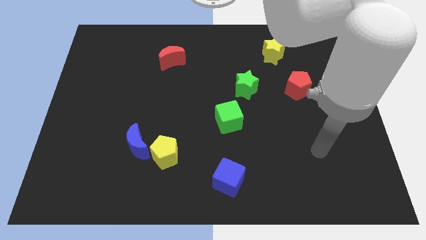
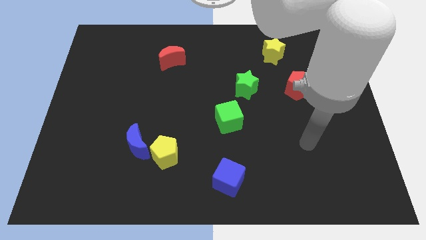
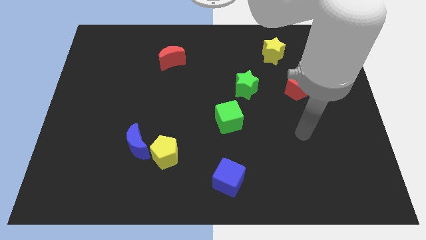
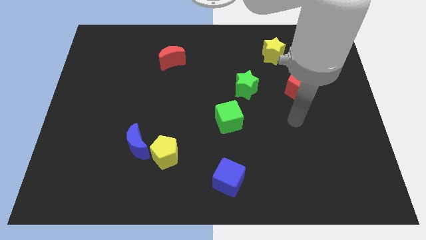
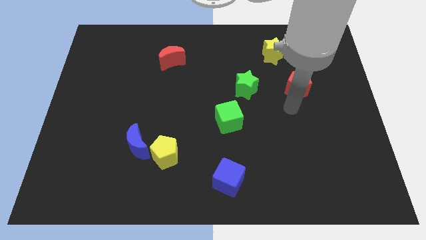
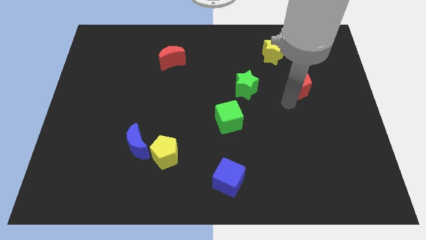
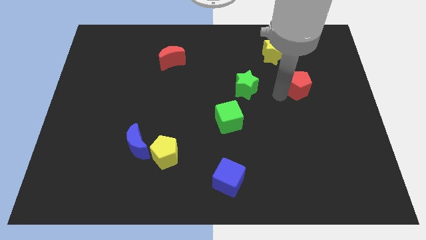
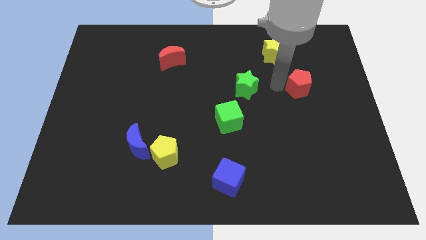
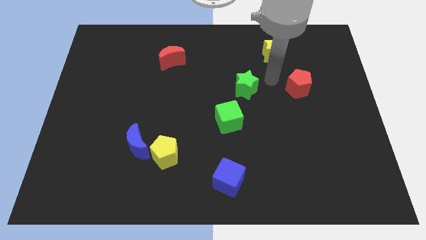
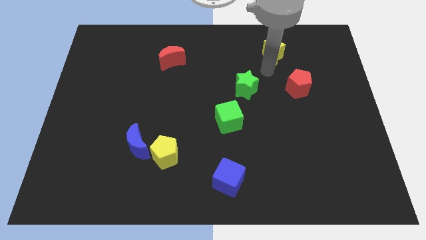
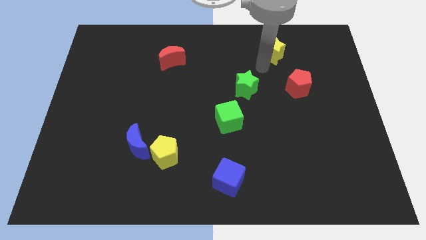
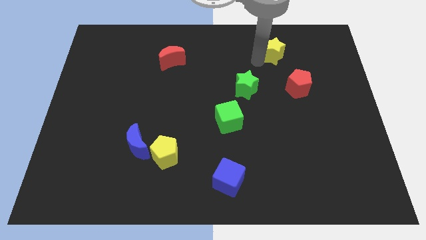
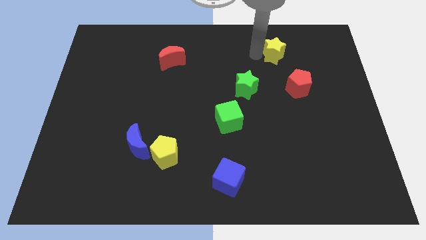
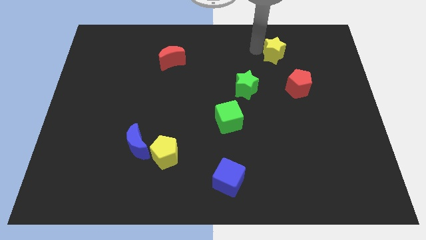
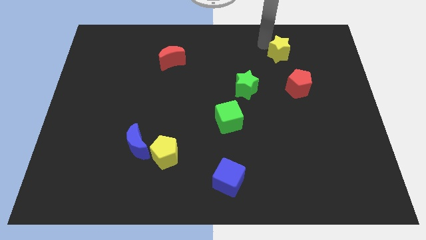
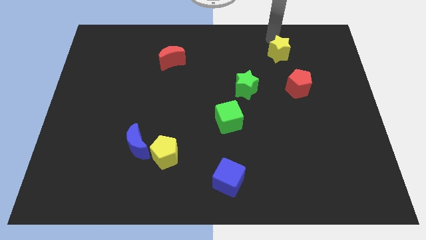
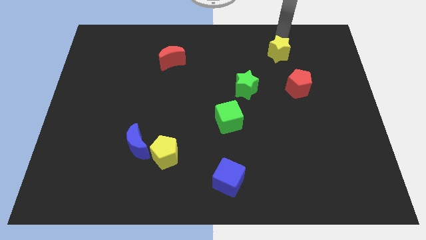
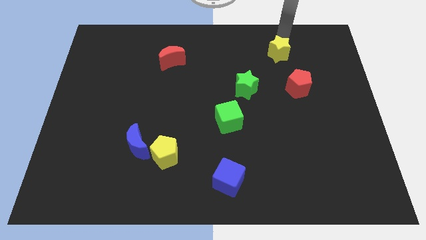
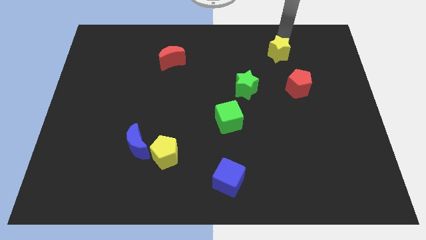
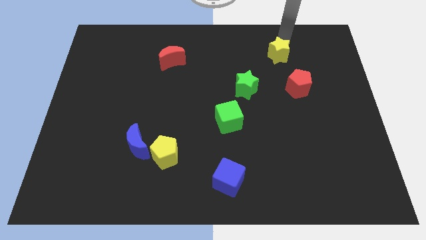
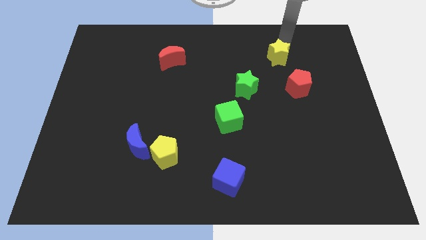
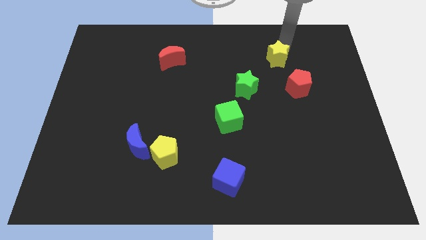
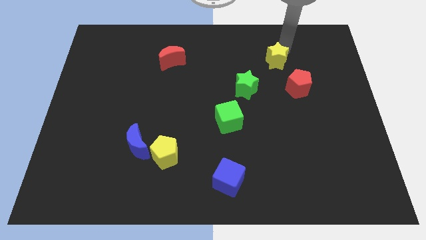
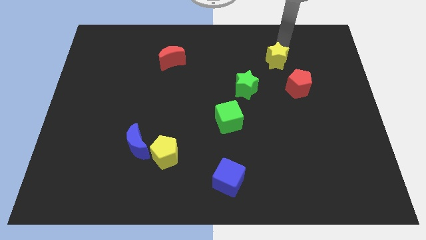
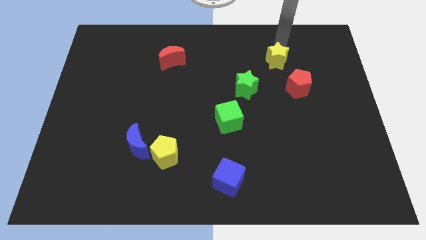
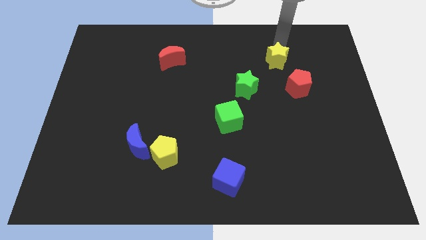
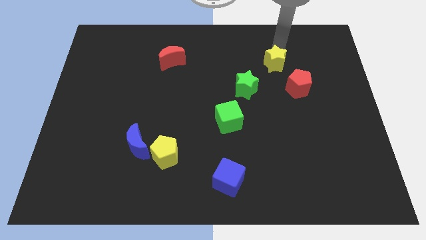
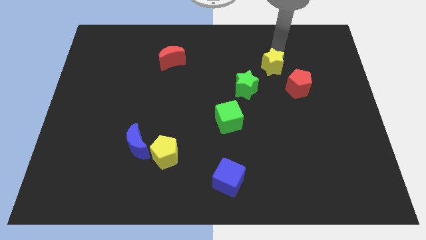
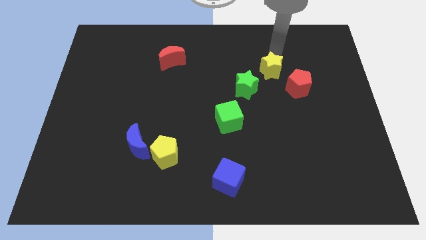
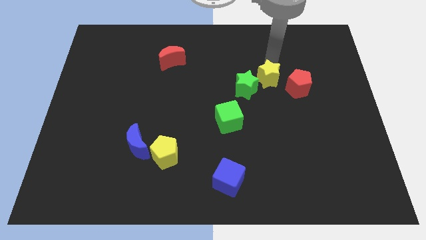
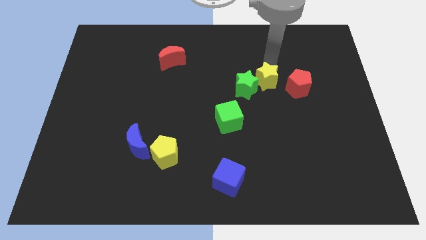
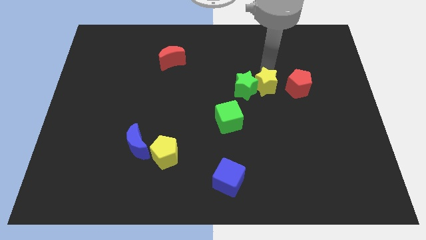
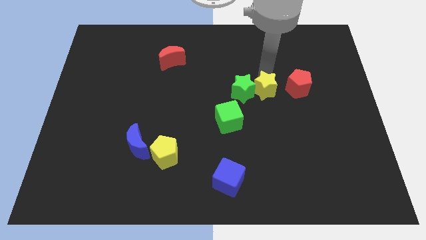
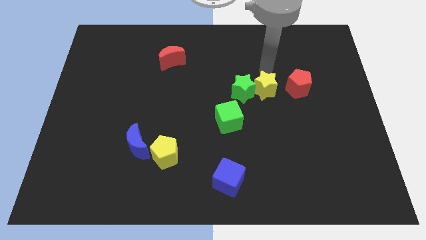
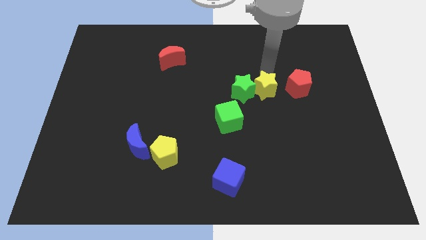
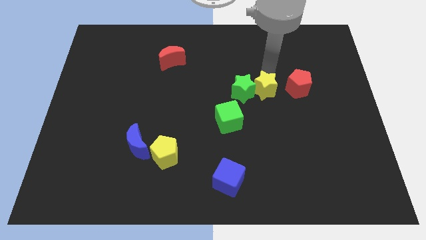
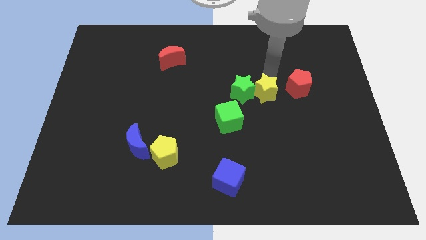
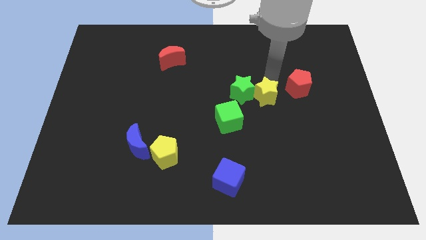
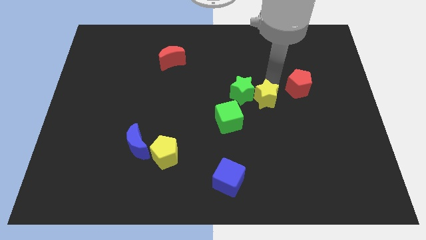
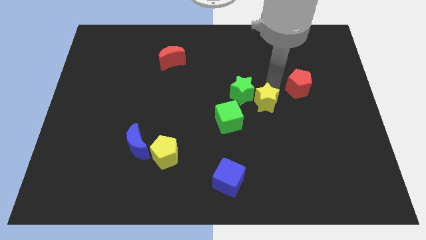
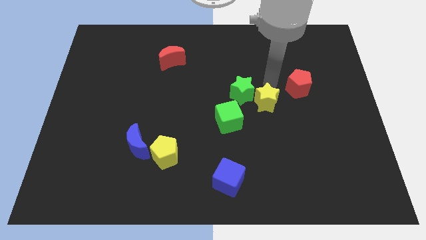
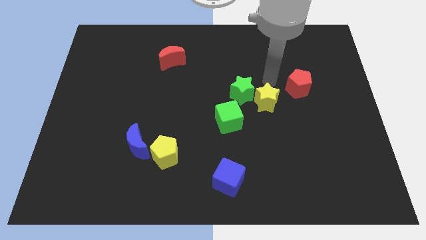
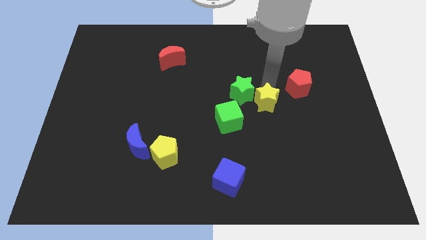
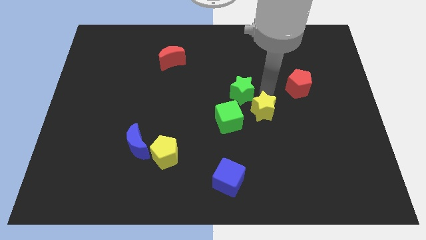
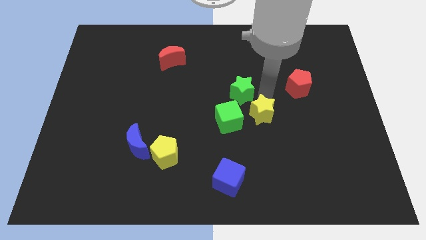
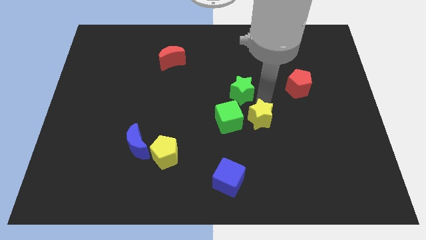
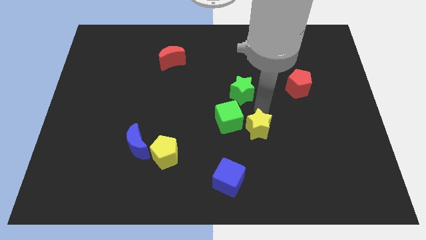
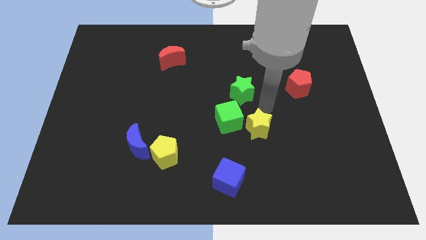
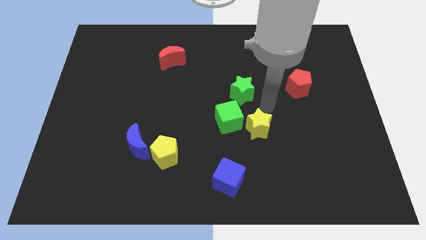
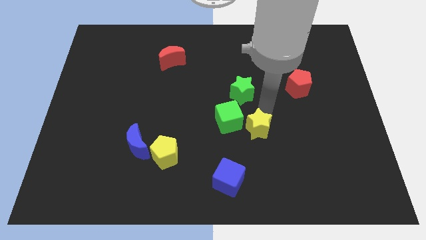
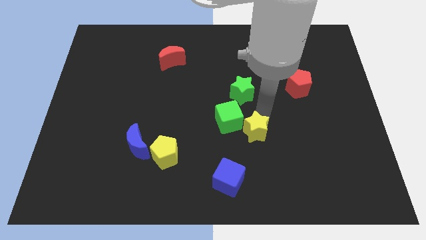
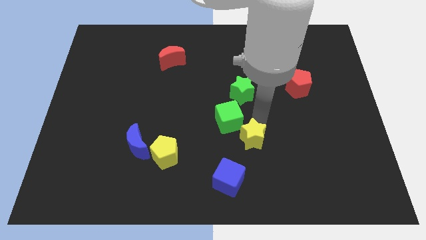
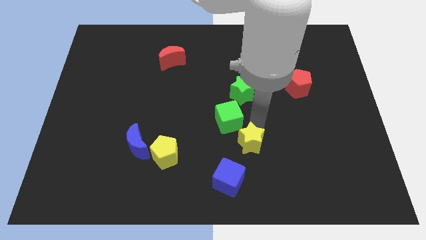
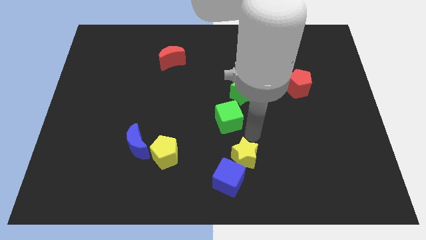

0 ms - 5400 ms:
push the yellow star next to the blue cube

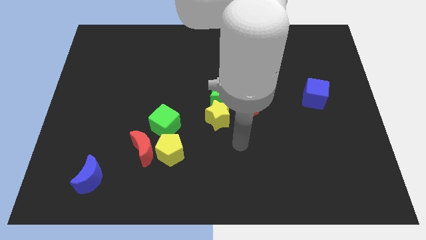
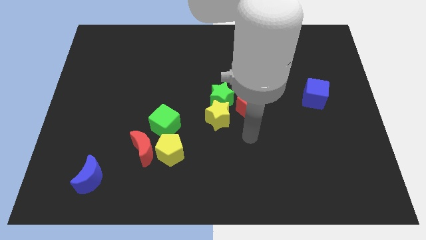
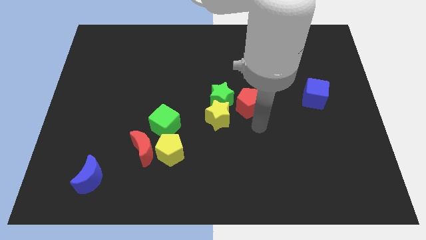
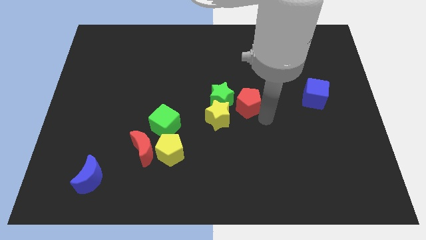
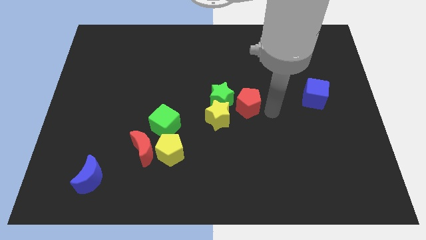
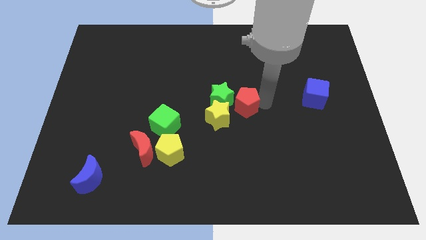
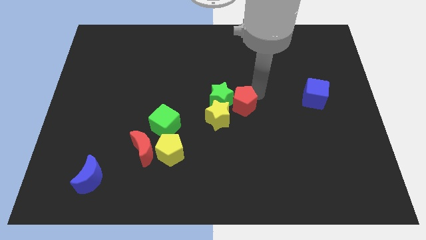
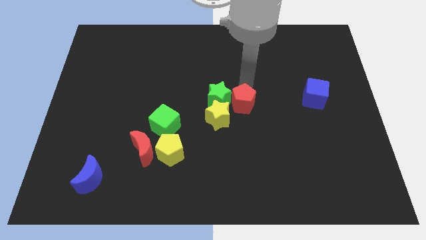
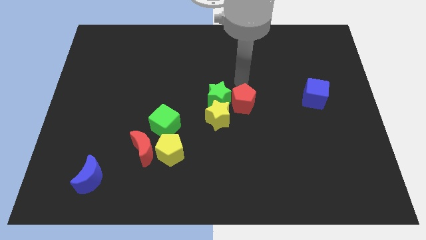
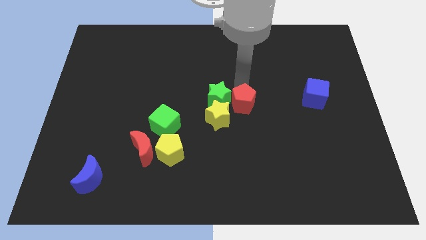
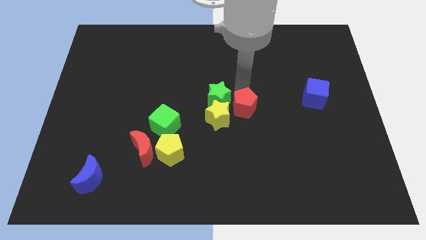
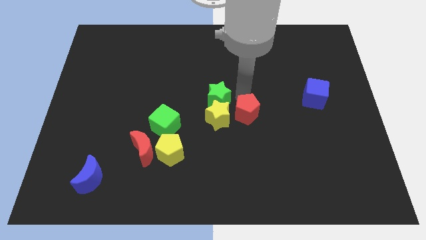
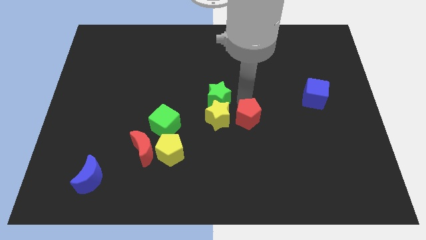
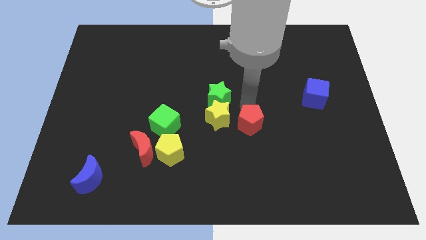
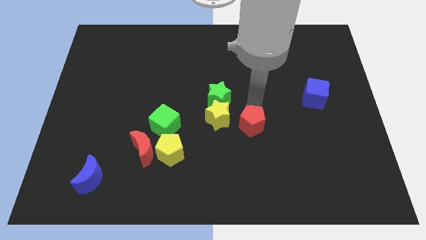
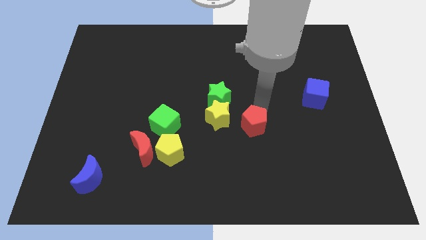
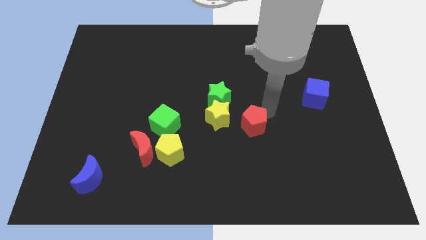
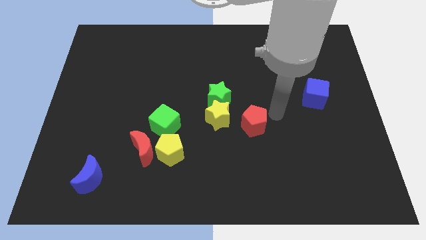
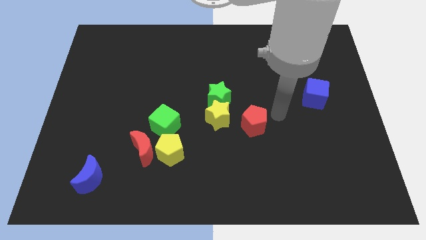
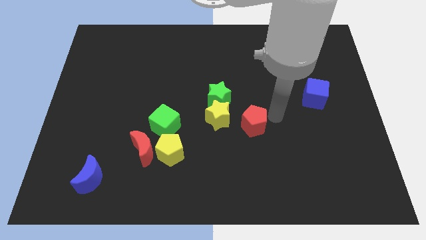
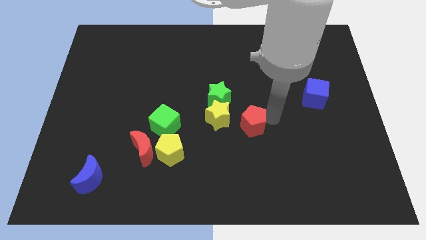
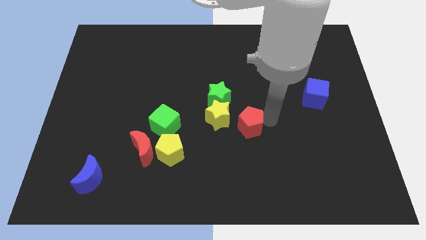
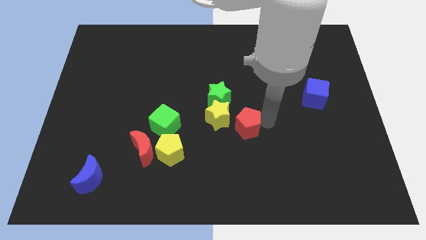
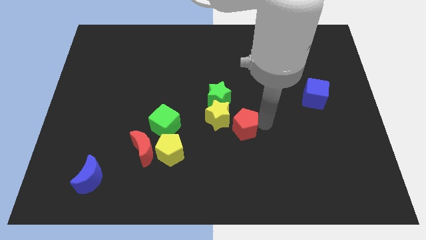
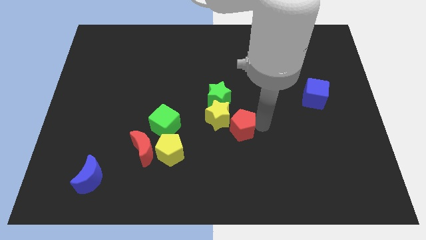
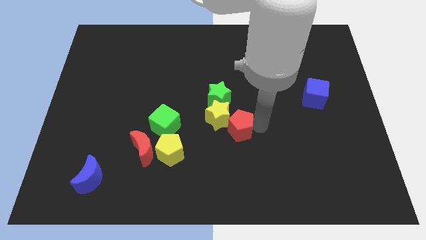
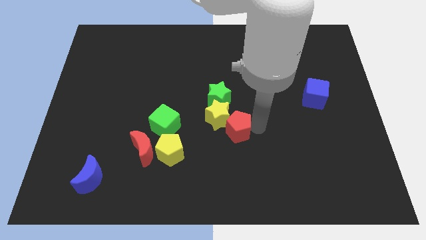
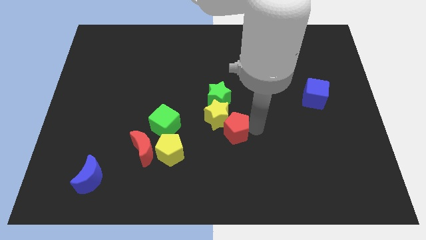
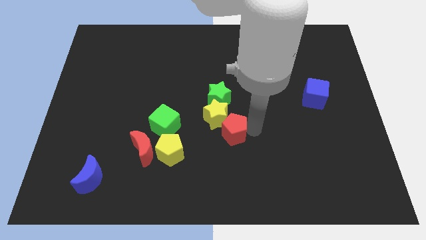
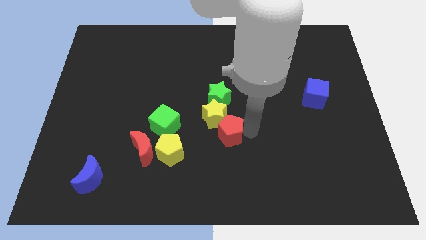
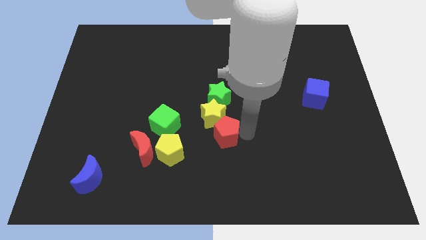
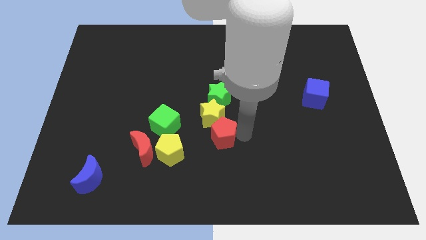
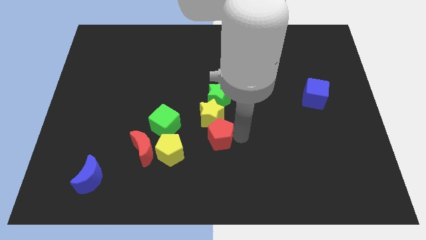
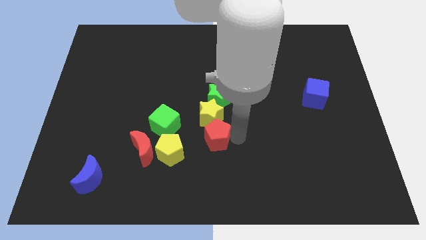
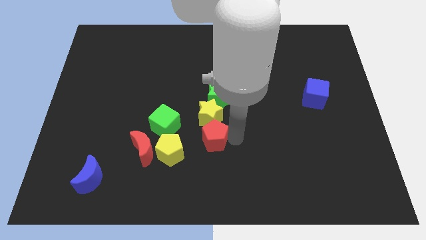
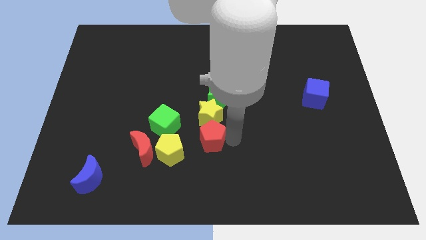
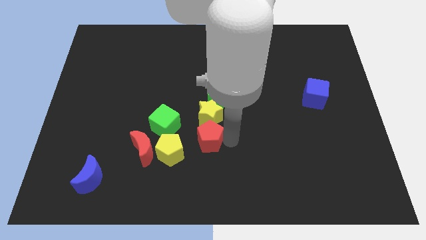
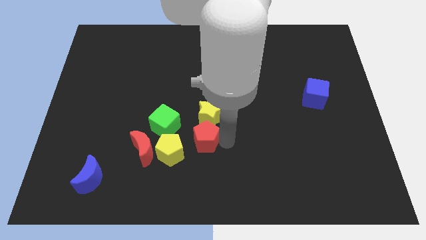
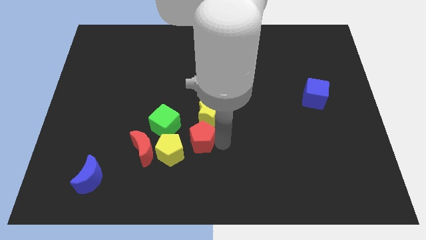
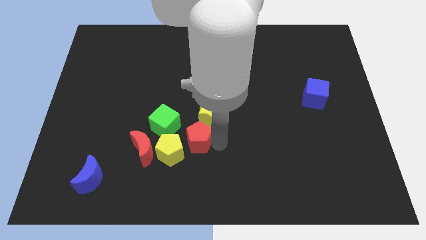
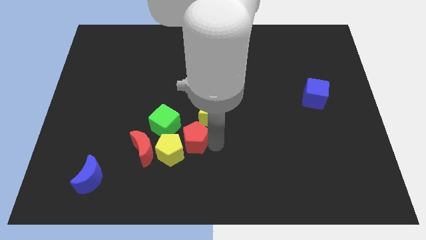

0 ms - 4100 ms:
slide the red pentagon towards the yellow pentagon
